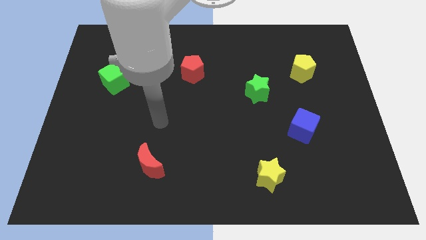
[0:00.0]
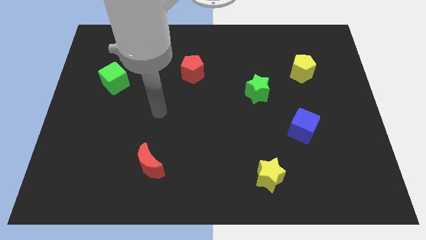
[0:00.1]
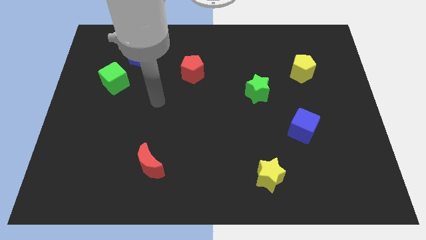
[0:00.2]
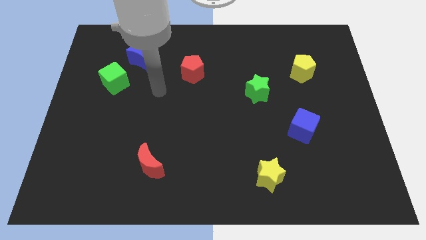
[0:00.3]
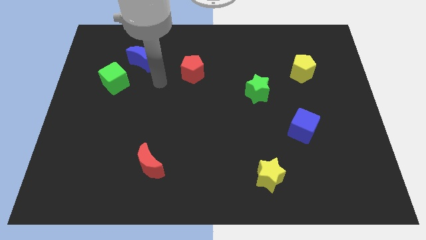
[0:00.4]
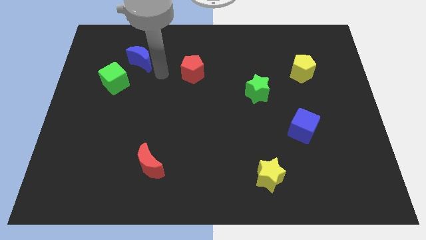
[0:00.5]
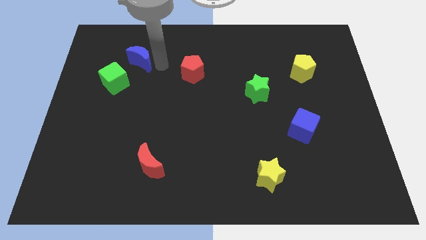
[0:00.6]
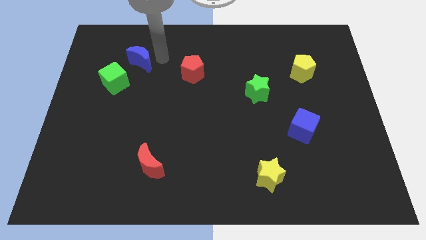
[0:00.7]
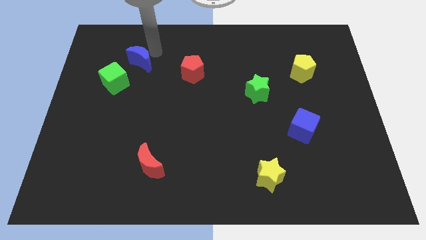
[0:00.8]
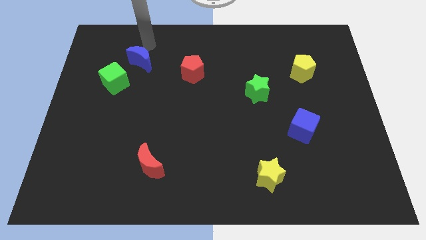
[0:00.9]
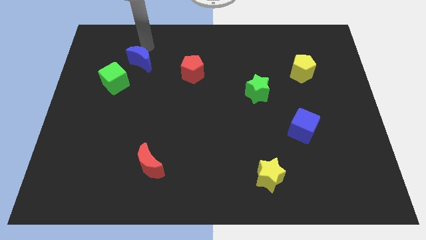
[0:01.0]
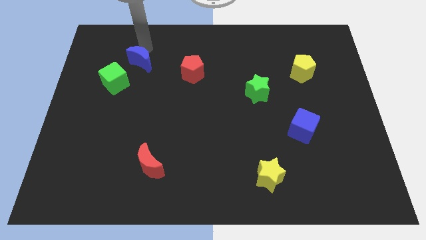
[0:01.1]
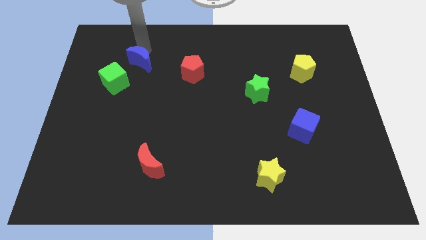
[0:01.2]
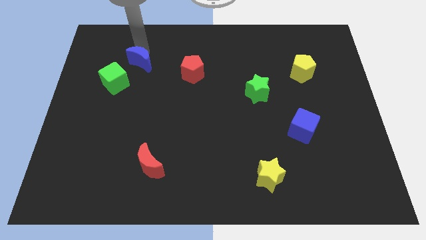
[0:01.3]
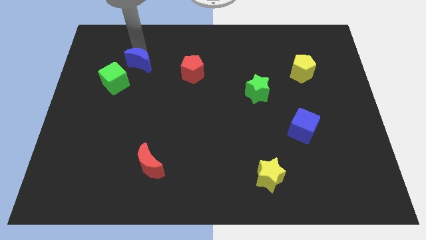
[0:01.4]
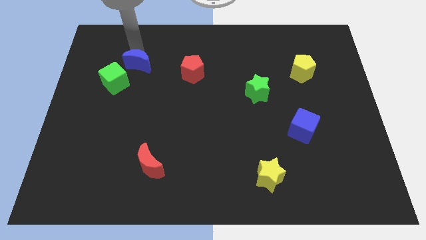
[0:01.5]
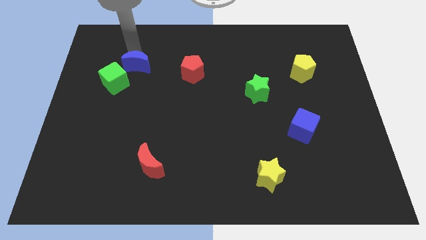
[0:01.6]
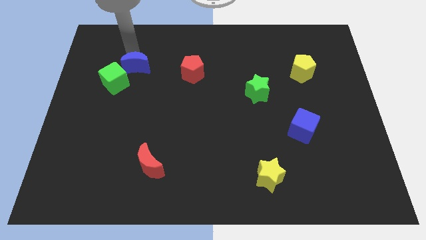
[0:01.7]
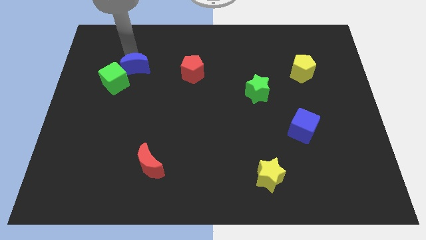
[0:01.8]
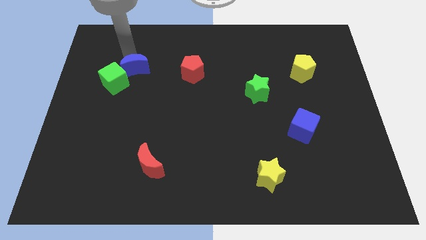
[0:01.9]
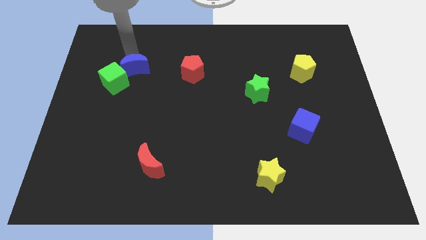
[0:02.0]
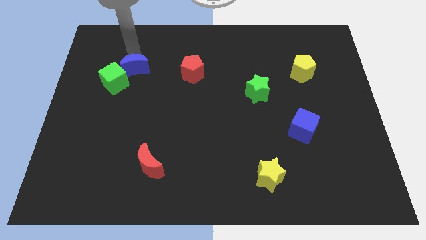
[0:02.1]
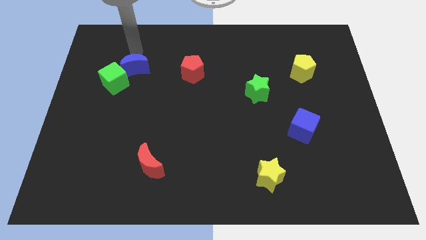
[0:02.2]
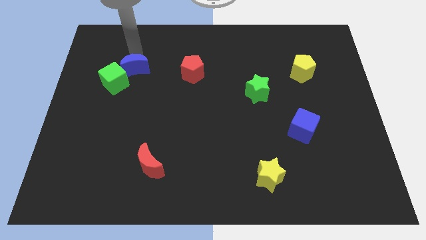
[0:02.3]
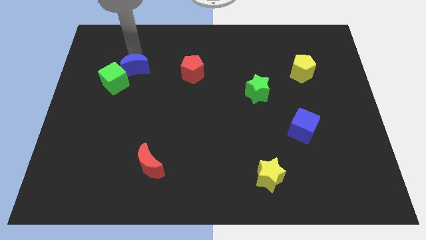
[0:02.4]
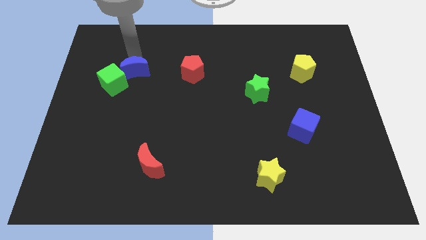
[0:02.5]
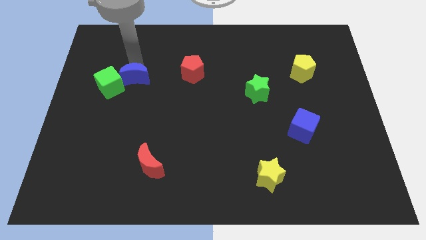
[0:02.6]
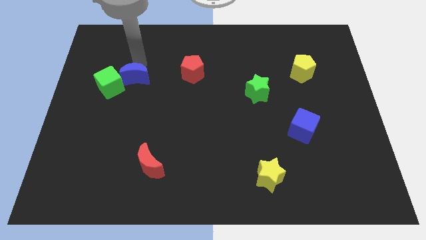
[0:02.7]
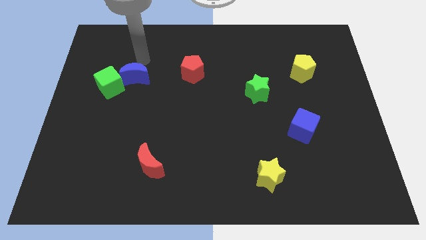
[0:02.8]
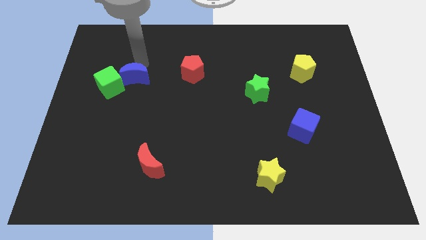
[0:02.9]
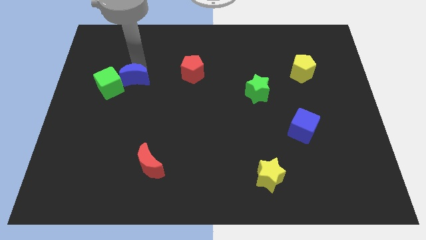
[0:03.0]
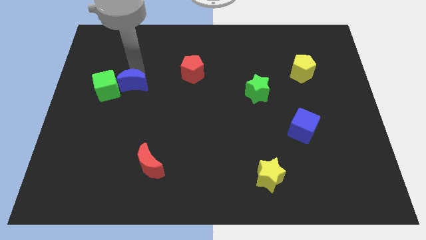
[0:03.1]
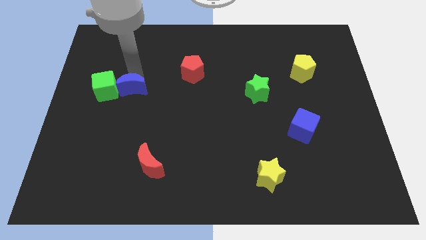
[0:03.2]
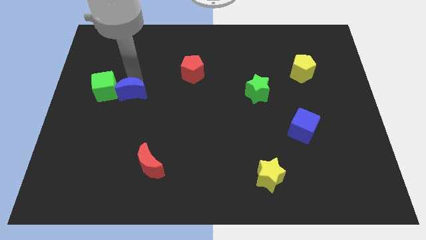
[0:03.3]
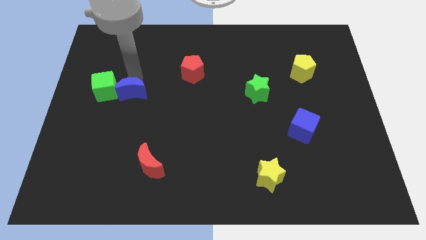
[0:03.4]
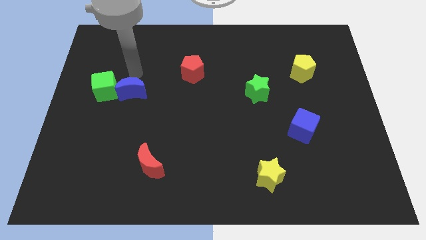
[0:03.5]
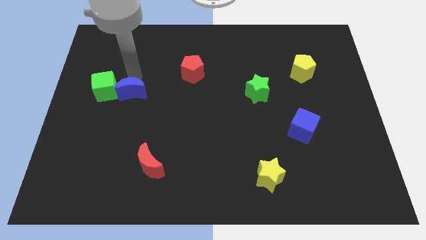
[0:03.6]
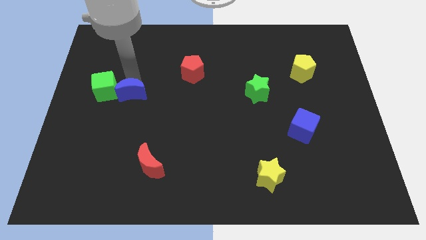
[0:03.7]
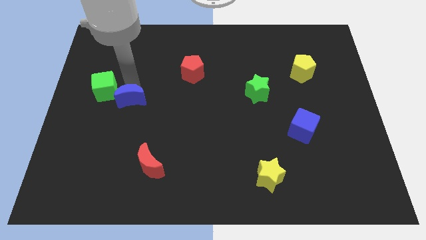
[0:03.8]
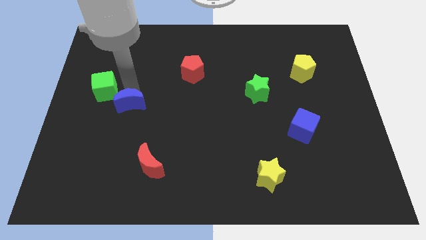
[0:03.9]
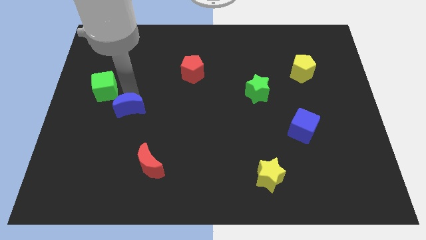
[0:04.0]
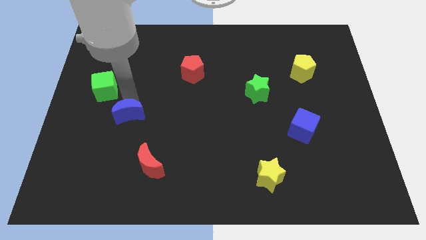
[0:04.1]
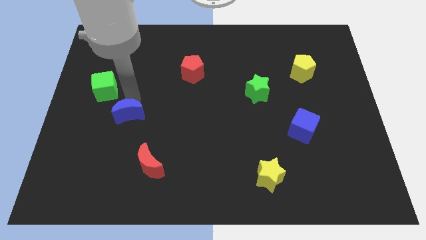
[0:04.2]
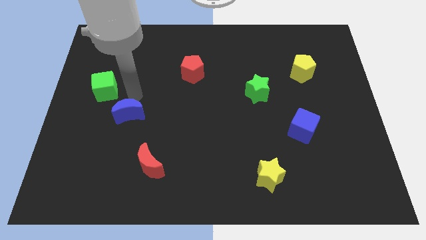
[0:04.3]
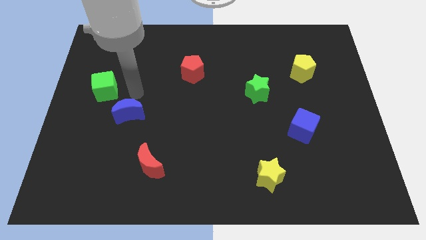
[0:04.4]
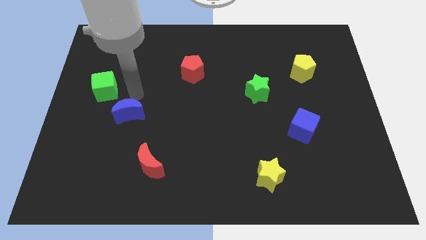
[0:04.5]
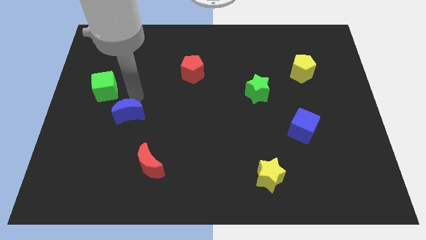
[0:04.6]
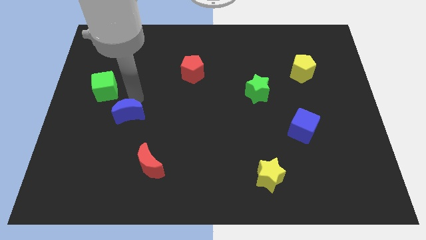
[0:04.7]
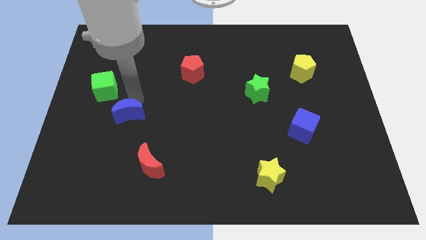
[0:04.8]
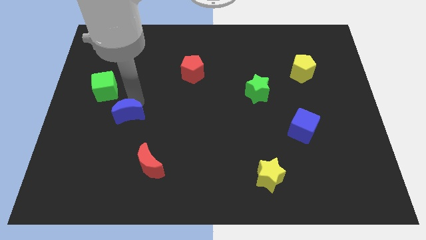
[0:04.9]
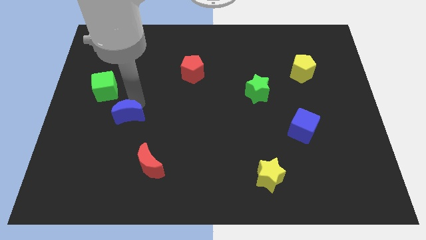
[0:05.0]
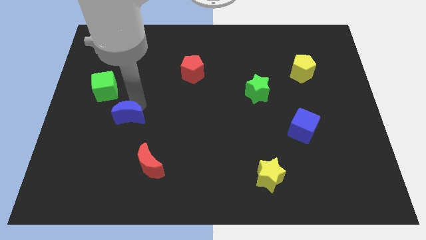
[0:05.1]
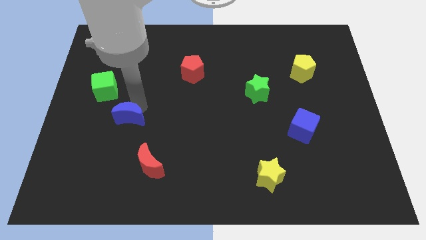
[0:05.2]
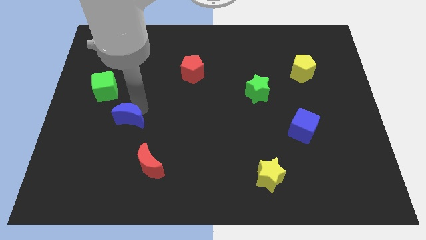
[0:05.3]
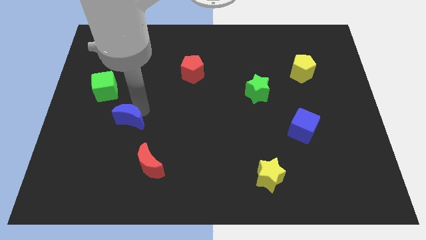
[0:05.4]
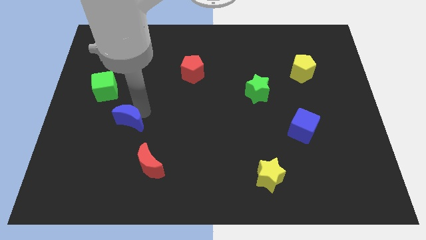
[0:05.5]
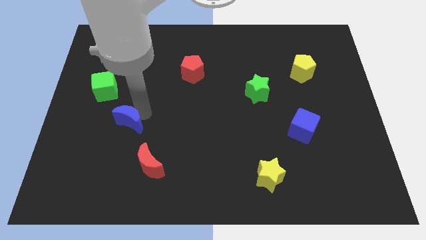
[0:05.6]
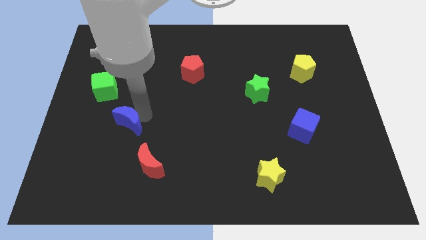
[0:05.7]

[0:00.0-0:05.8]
move the blue moon down

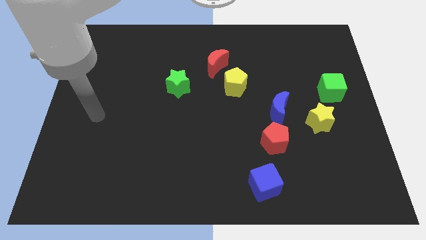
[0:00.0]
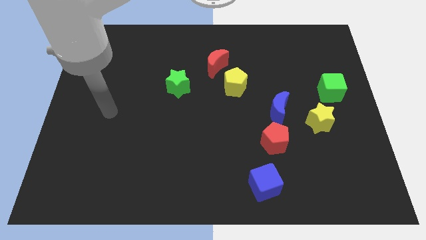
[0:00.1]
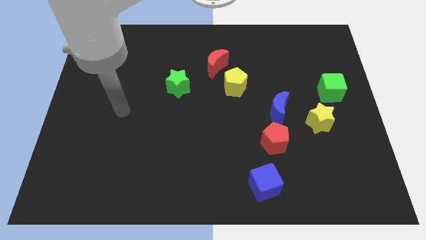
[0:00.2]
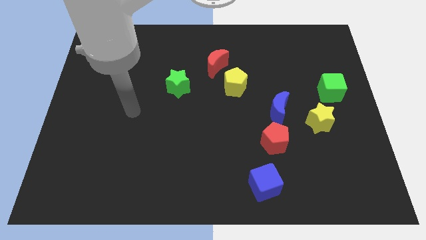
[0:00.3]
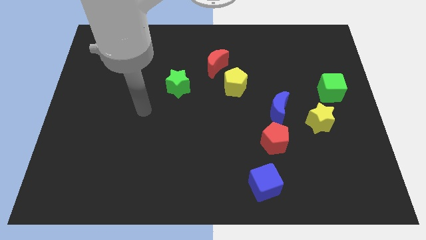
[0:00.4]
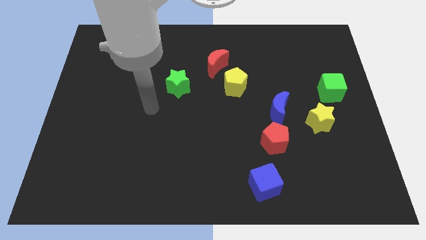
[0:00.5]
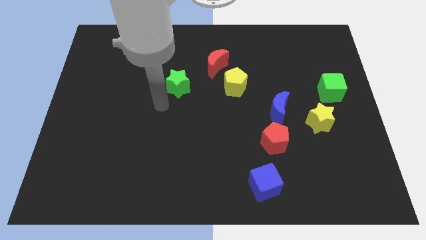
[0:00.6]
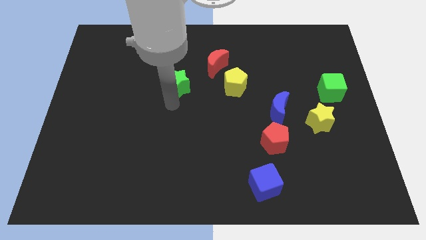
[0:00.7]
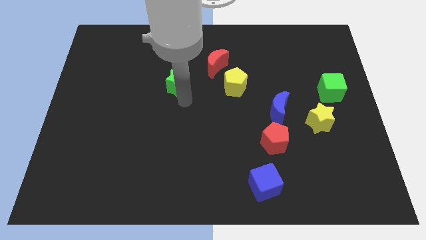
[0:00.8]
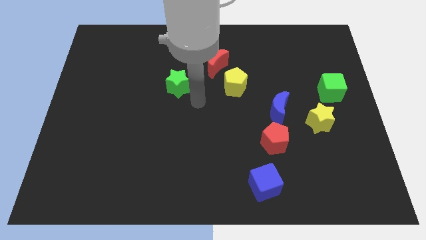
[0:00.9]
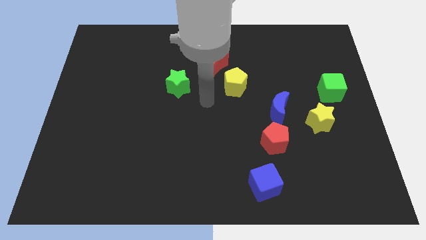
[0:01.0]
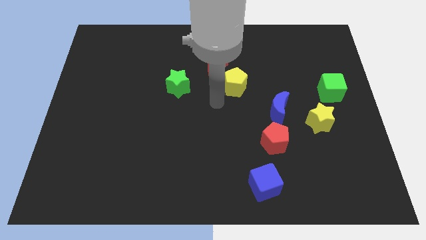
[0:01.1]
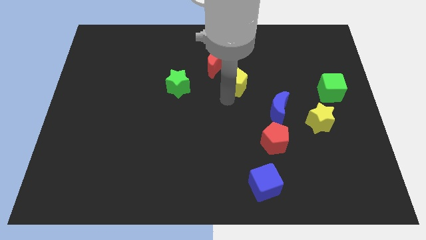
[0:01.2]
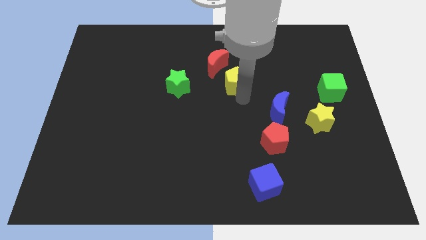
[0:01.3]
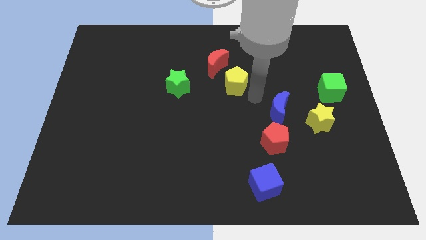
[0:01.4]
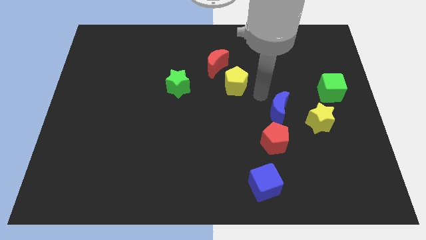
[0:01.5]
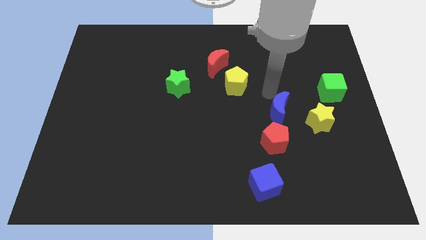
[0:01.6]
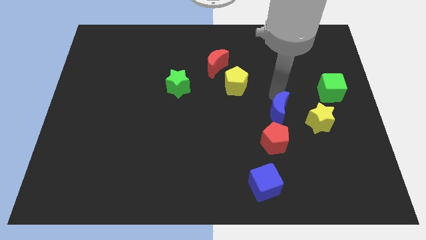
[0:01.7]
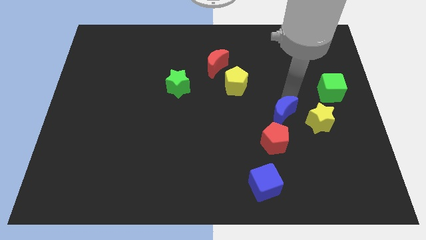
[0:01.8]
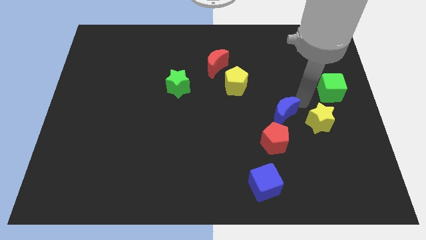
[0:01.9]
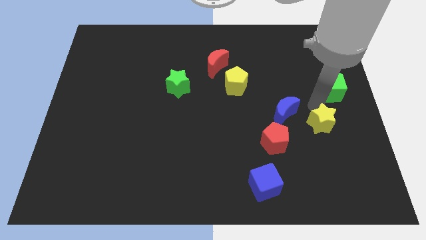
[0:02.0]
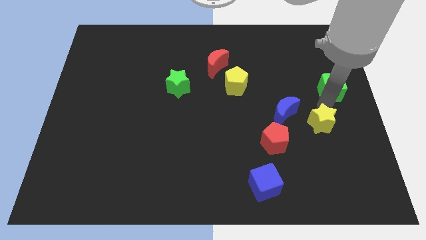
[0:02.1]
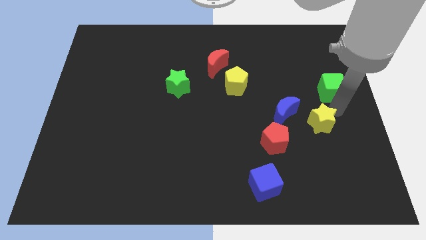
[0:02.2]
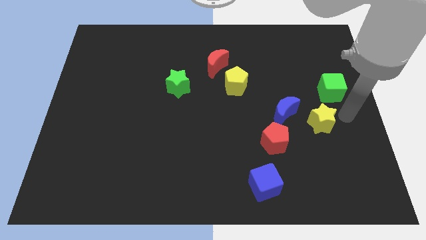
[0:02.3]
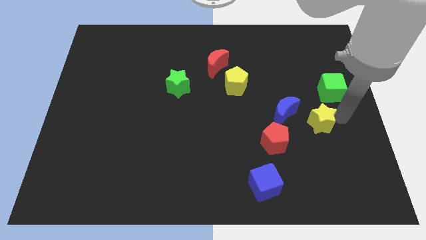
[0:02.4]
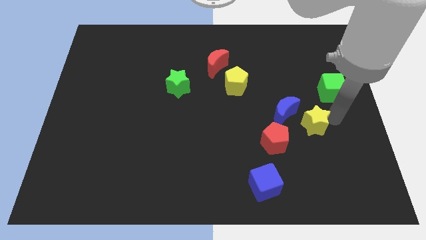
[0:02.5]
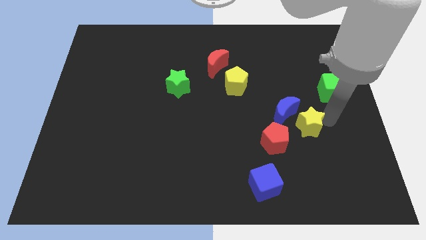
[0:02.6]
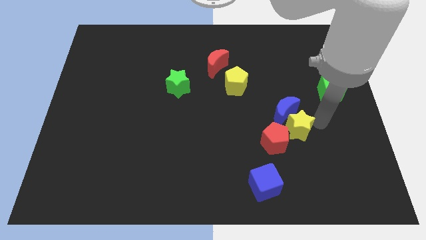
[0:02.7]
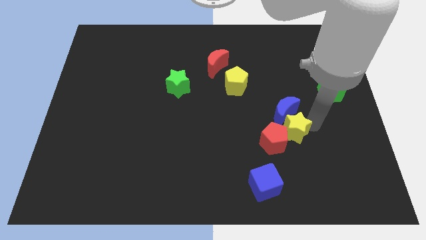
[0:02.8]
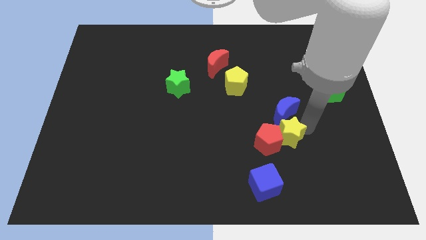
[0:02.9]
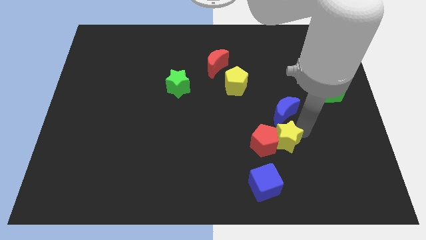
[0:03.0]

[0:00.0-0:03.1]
push the yellow star left a little bit
